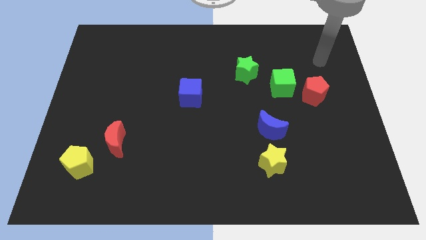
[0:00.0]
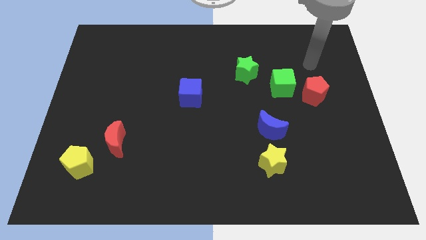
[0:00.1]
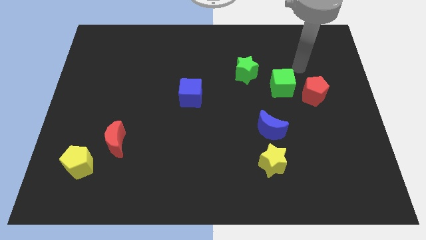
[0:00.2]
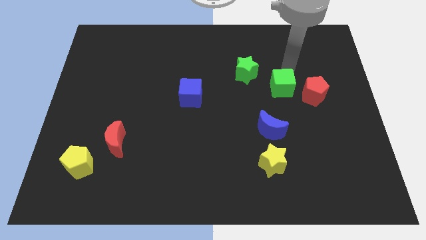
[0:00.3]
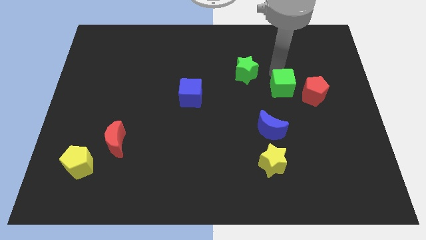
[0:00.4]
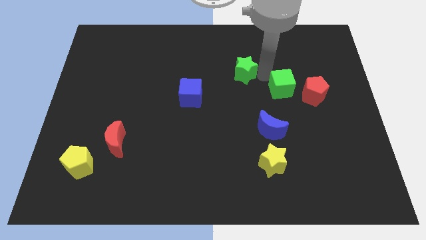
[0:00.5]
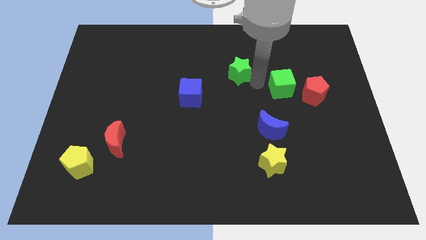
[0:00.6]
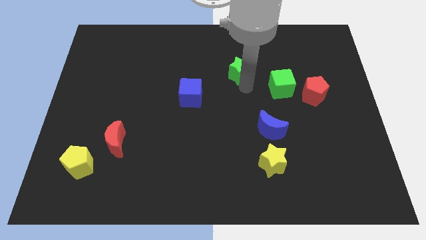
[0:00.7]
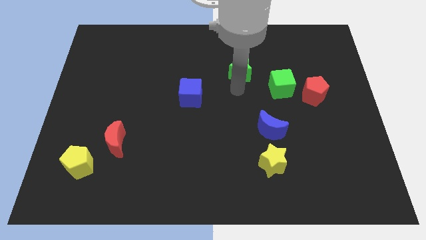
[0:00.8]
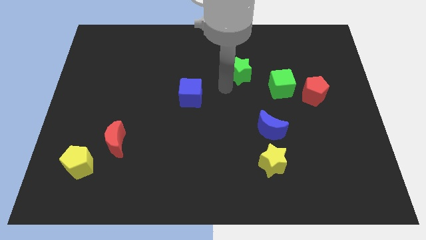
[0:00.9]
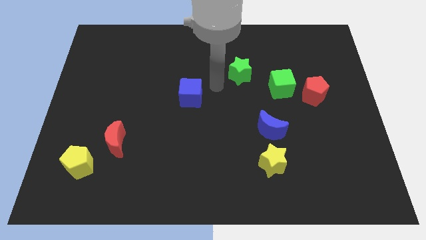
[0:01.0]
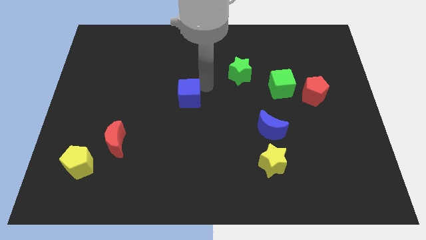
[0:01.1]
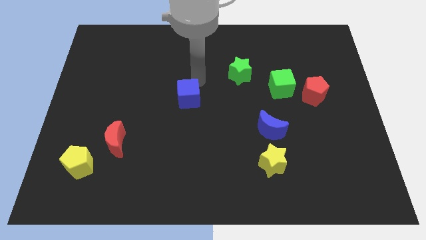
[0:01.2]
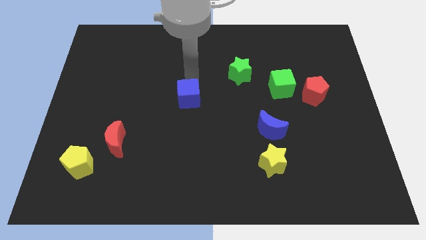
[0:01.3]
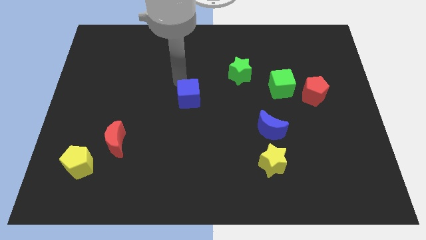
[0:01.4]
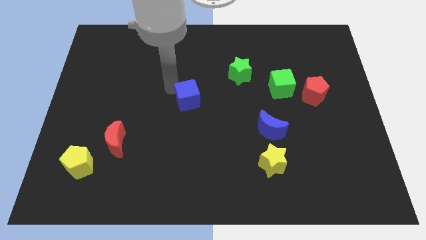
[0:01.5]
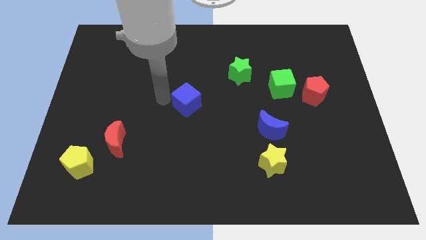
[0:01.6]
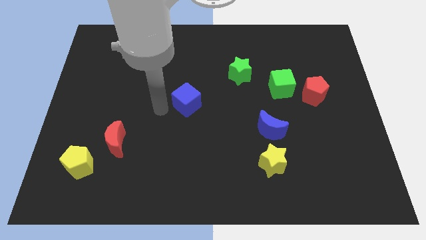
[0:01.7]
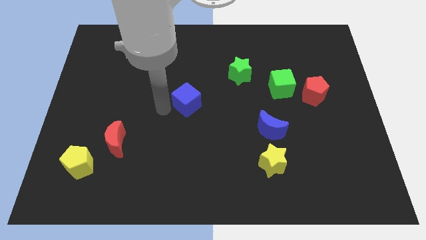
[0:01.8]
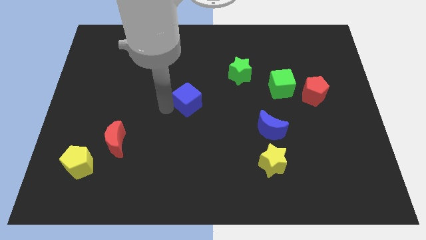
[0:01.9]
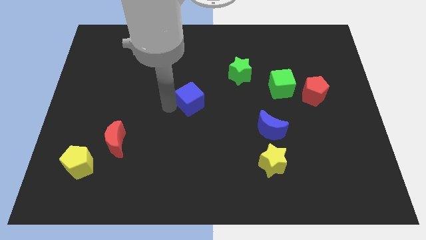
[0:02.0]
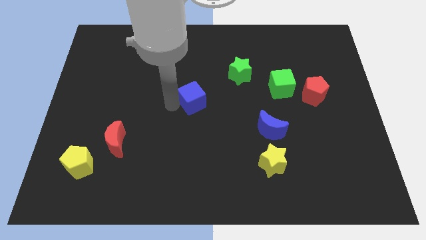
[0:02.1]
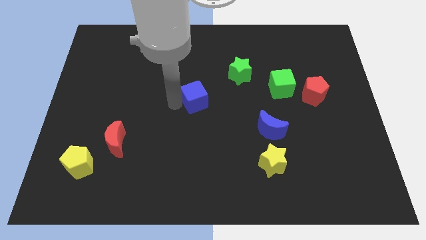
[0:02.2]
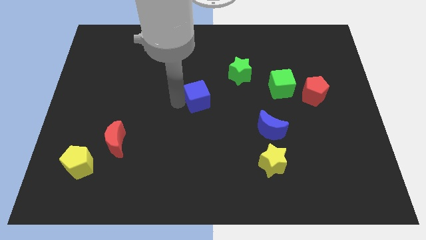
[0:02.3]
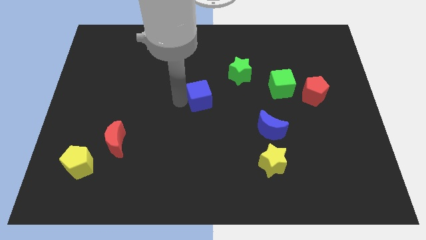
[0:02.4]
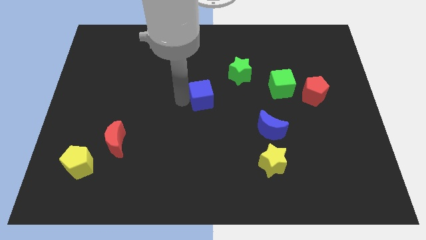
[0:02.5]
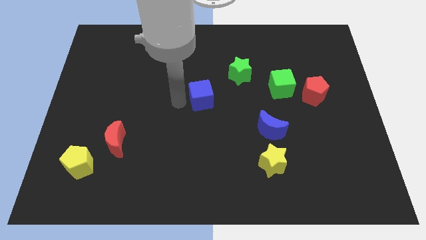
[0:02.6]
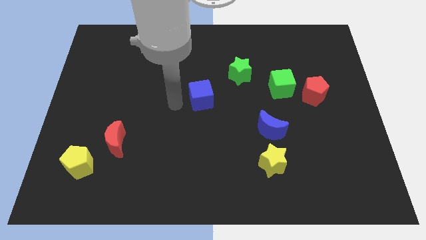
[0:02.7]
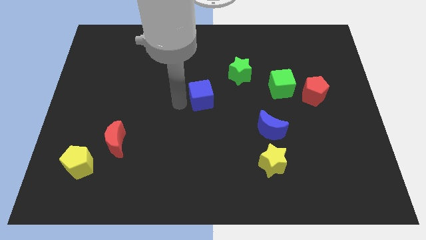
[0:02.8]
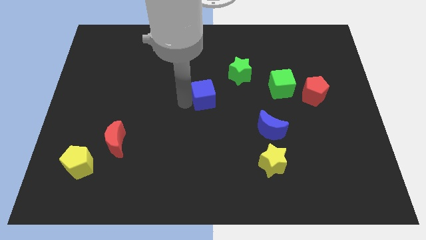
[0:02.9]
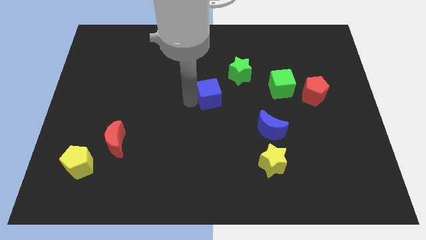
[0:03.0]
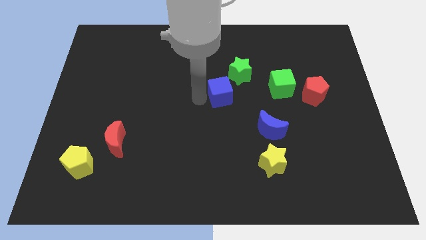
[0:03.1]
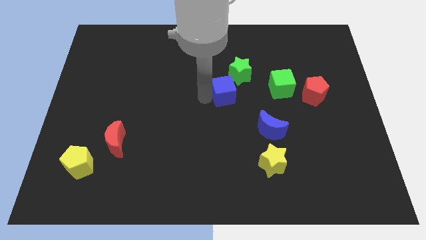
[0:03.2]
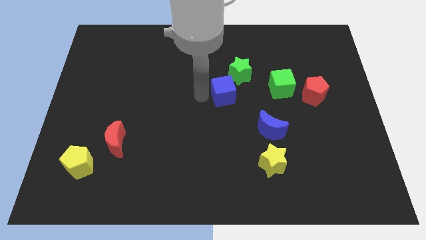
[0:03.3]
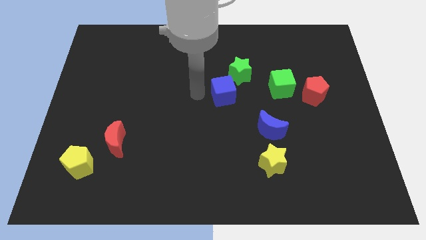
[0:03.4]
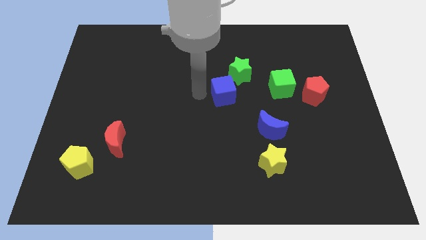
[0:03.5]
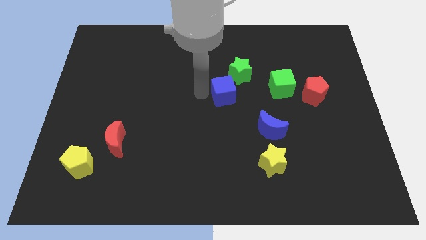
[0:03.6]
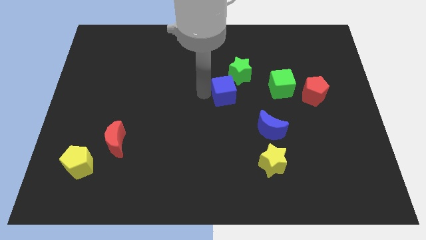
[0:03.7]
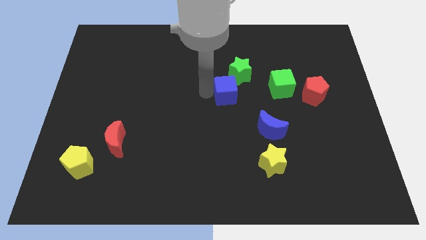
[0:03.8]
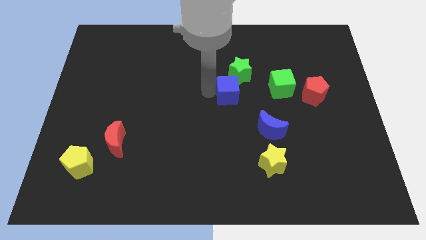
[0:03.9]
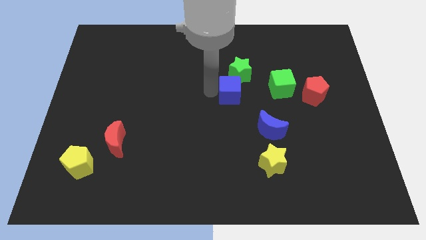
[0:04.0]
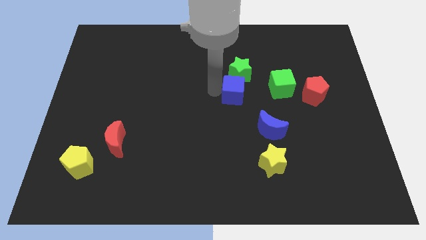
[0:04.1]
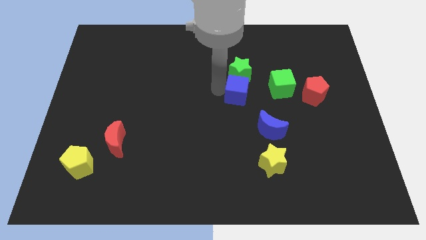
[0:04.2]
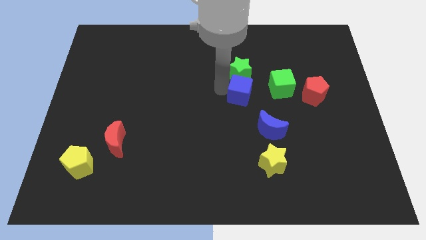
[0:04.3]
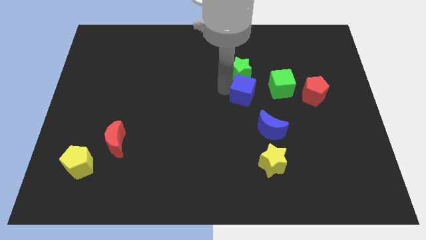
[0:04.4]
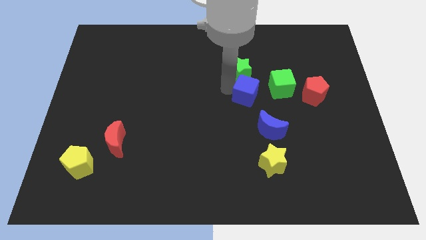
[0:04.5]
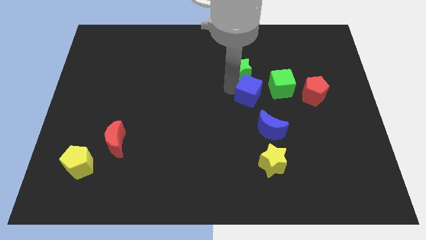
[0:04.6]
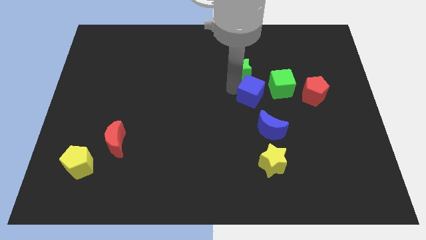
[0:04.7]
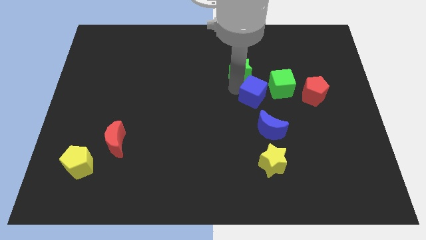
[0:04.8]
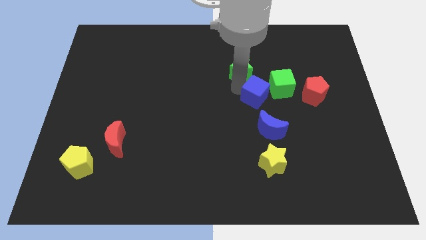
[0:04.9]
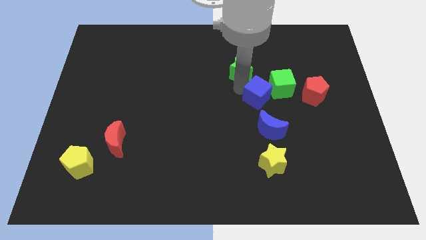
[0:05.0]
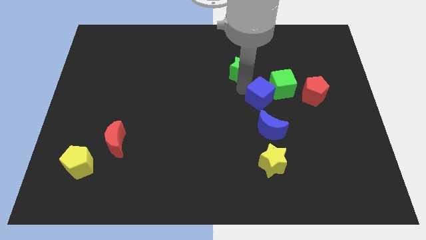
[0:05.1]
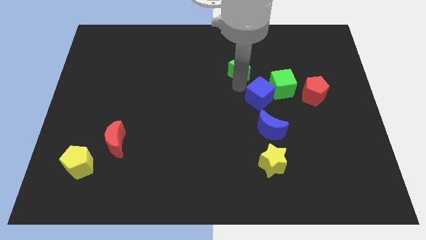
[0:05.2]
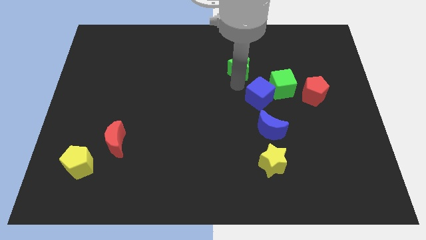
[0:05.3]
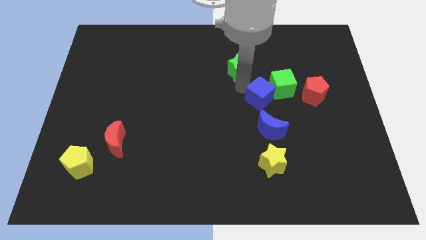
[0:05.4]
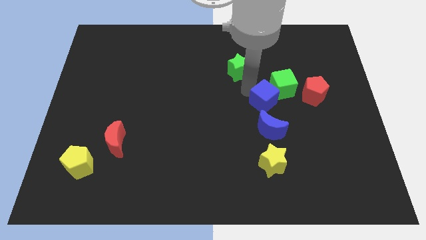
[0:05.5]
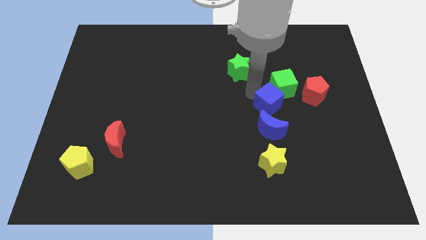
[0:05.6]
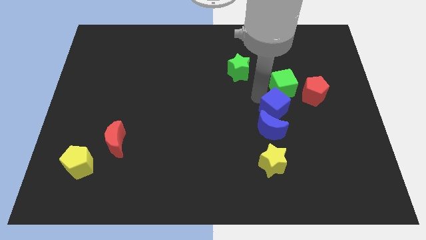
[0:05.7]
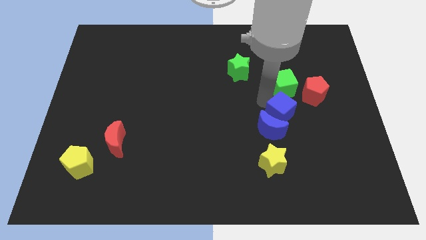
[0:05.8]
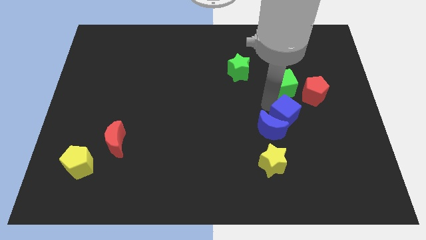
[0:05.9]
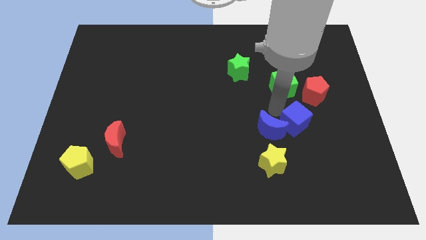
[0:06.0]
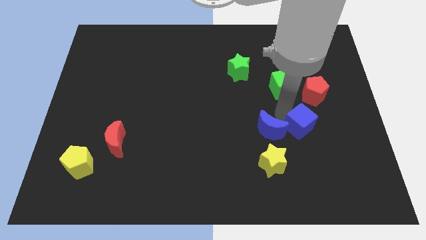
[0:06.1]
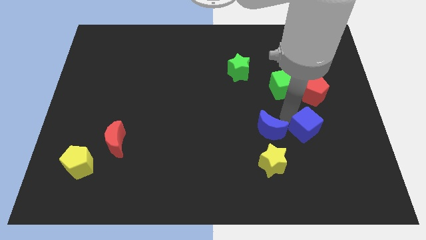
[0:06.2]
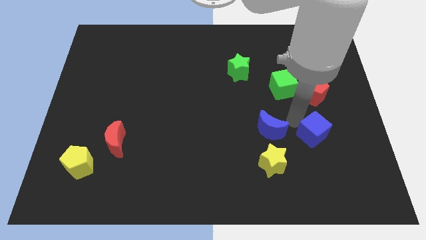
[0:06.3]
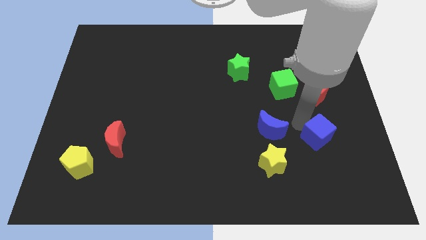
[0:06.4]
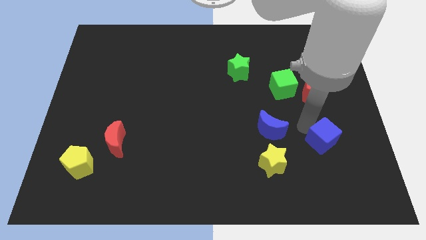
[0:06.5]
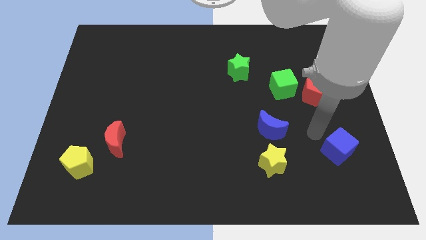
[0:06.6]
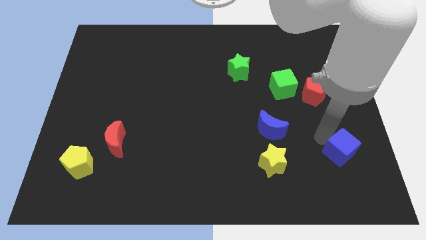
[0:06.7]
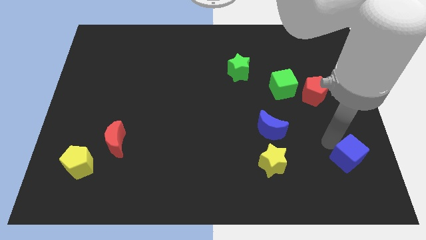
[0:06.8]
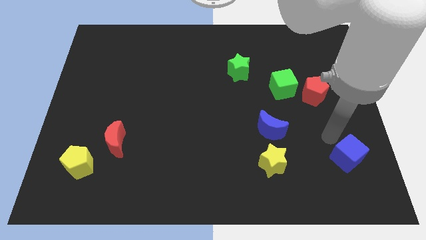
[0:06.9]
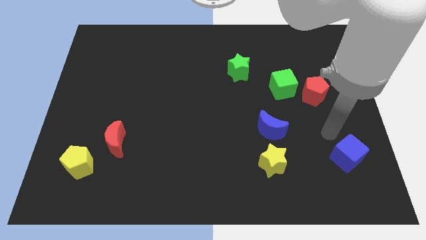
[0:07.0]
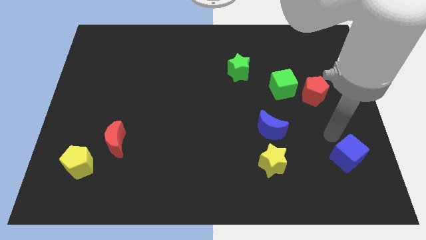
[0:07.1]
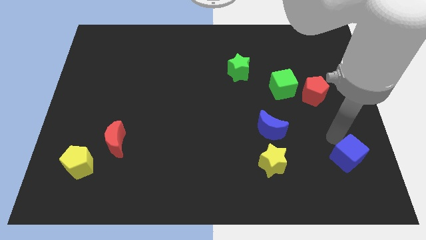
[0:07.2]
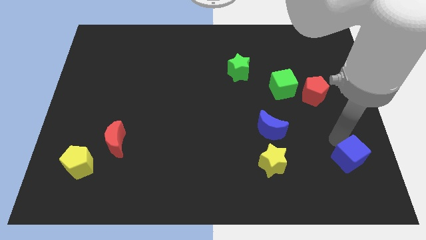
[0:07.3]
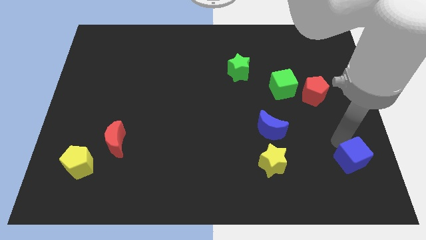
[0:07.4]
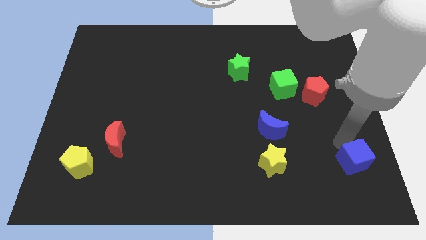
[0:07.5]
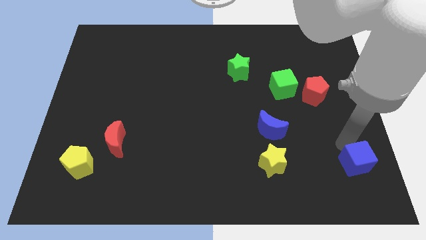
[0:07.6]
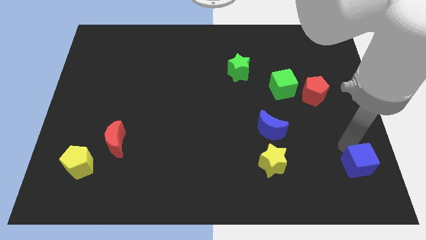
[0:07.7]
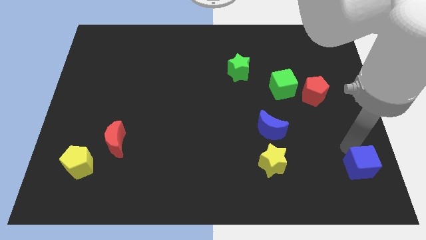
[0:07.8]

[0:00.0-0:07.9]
move the blue cube to the bottom right corner
